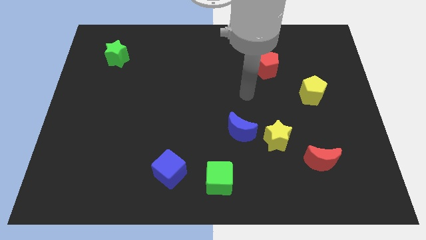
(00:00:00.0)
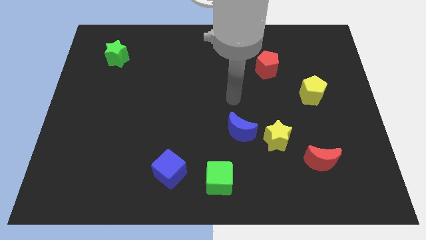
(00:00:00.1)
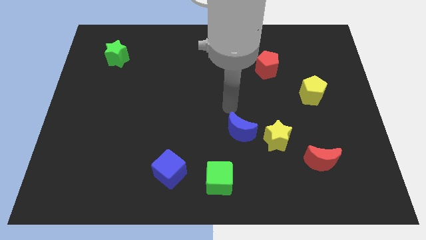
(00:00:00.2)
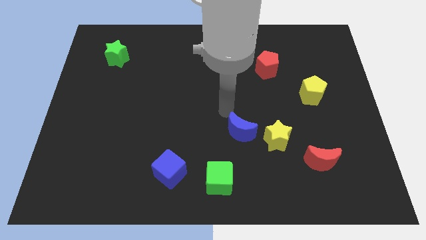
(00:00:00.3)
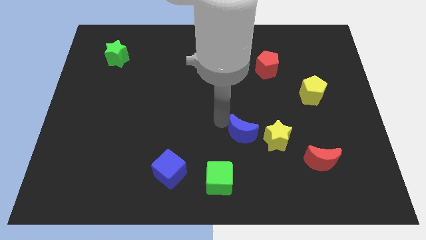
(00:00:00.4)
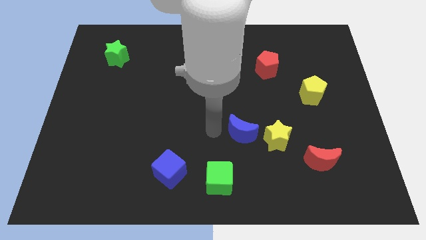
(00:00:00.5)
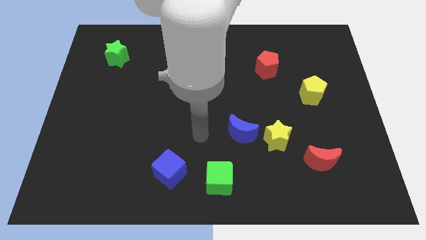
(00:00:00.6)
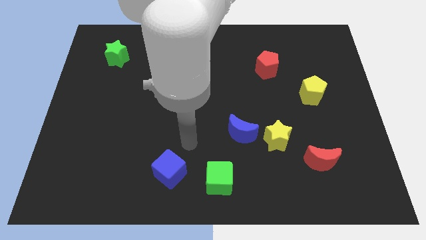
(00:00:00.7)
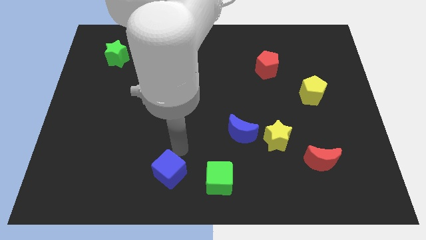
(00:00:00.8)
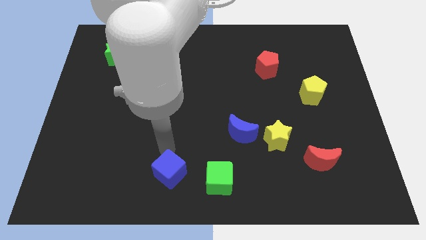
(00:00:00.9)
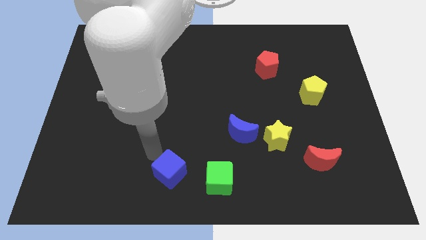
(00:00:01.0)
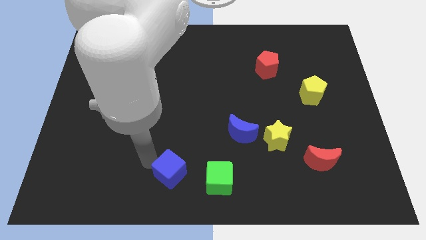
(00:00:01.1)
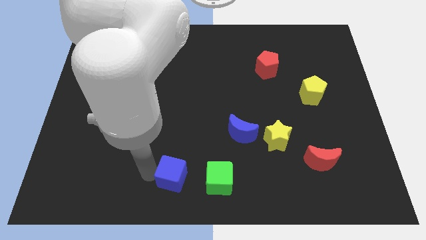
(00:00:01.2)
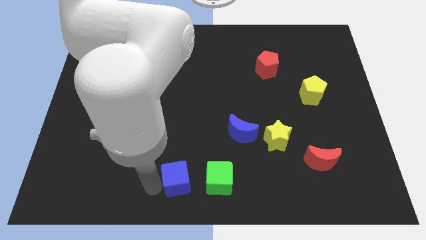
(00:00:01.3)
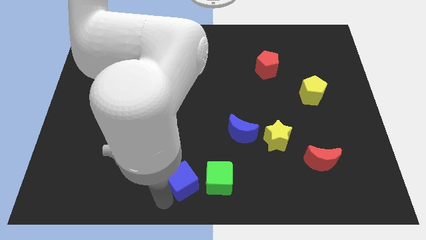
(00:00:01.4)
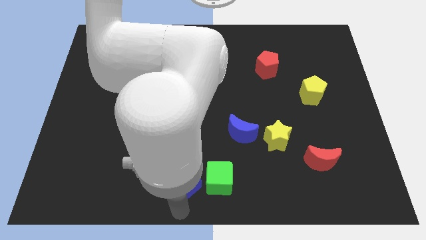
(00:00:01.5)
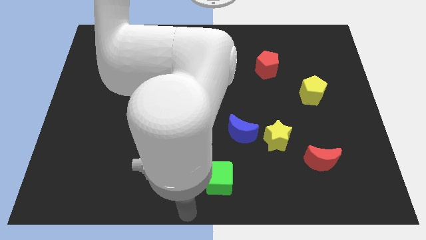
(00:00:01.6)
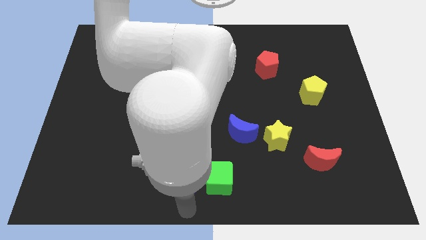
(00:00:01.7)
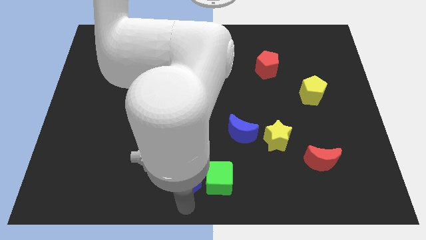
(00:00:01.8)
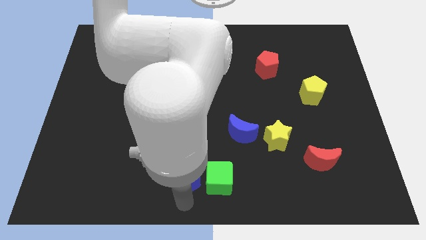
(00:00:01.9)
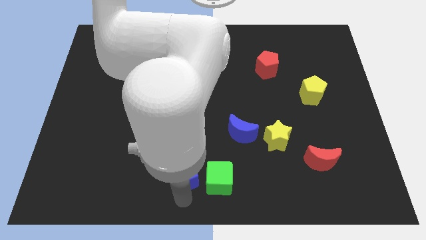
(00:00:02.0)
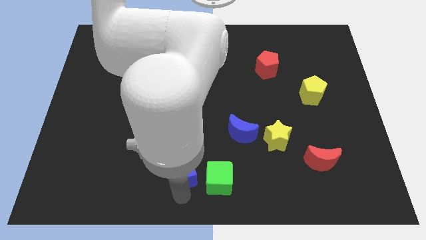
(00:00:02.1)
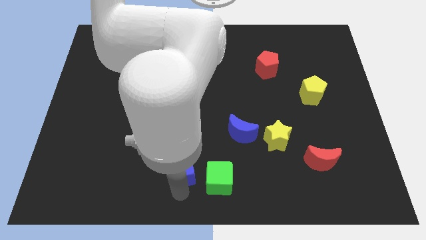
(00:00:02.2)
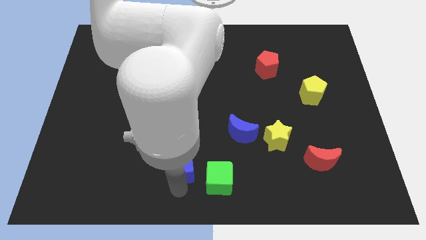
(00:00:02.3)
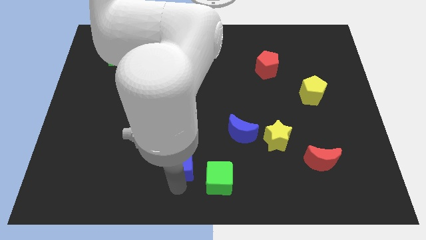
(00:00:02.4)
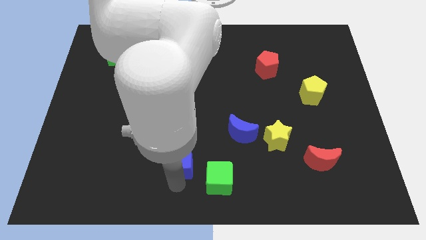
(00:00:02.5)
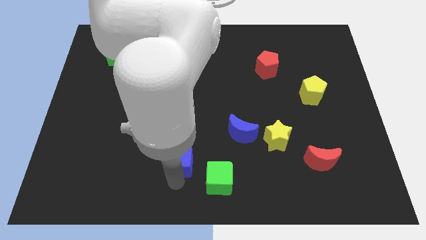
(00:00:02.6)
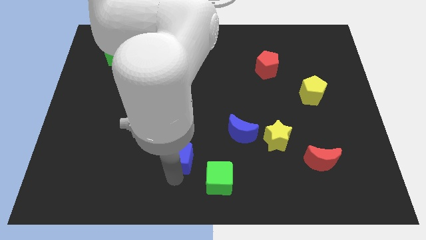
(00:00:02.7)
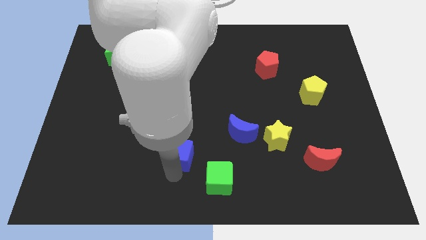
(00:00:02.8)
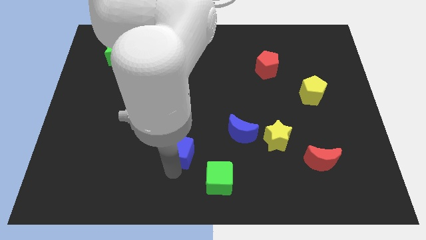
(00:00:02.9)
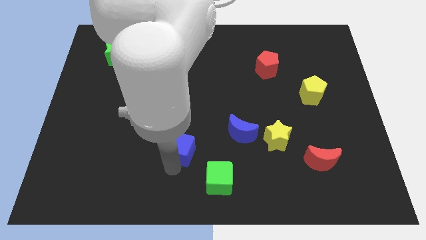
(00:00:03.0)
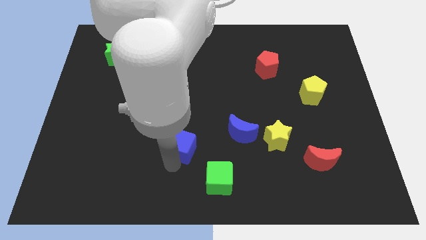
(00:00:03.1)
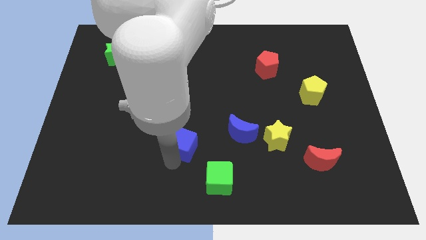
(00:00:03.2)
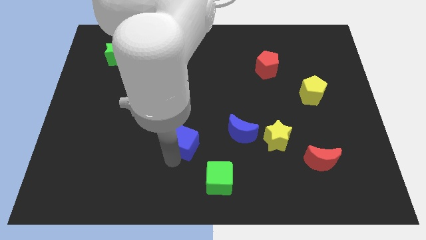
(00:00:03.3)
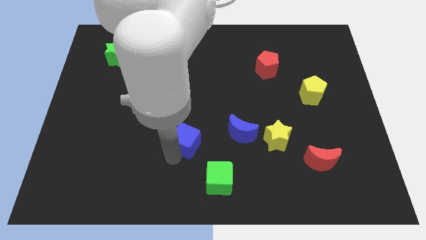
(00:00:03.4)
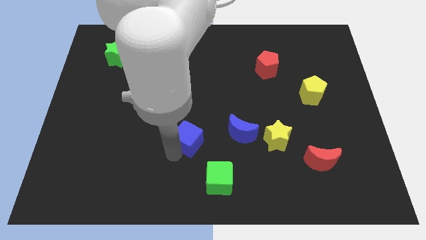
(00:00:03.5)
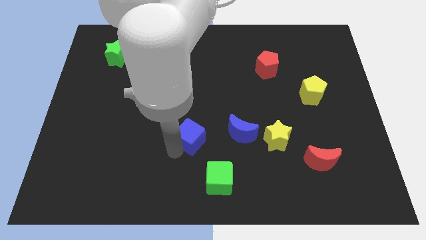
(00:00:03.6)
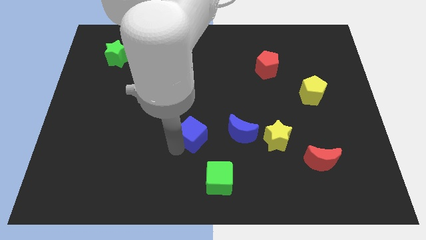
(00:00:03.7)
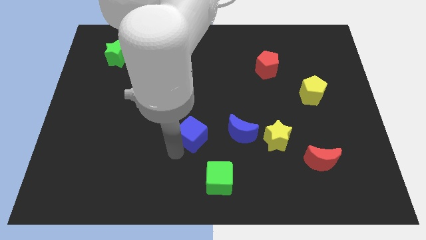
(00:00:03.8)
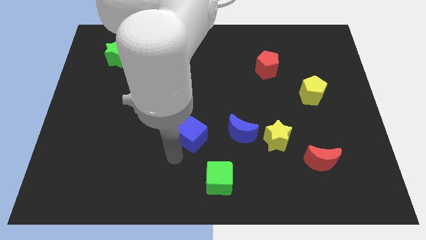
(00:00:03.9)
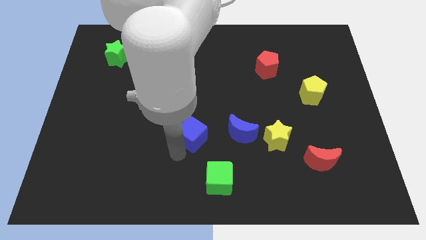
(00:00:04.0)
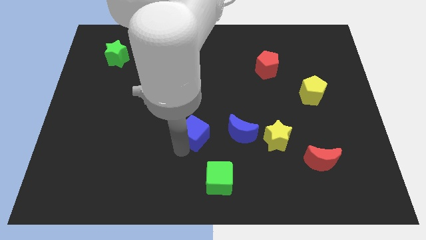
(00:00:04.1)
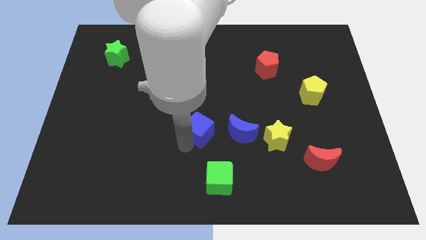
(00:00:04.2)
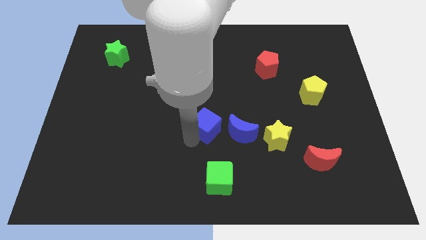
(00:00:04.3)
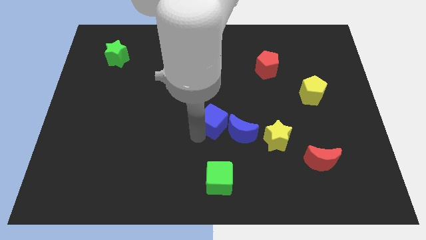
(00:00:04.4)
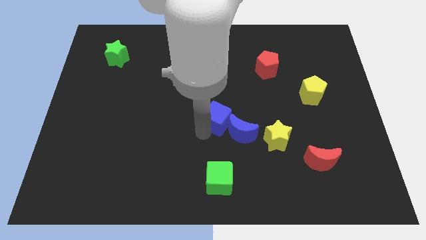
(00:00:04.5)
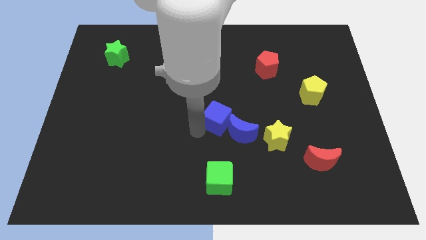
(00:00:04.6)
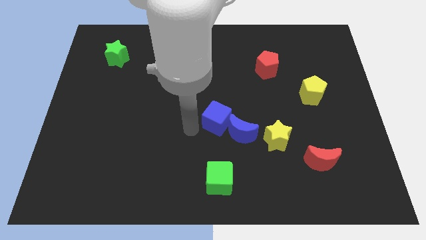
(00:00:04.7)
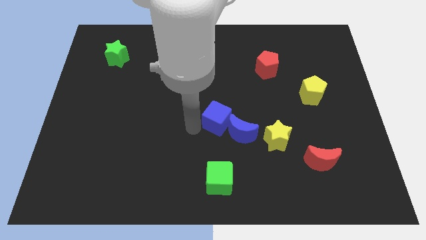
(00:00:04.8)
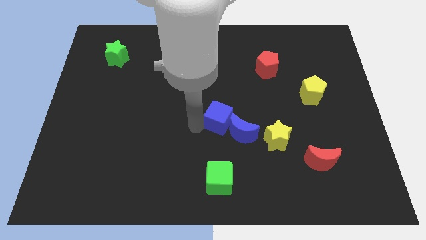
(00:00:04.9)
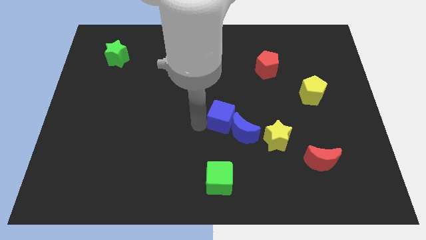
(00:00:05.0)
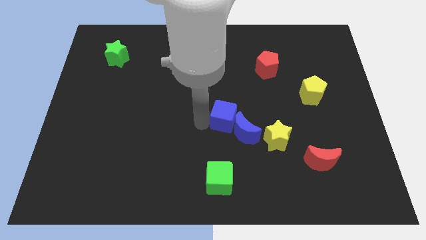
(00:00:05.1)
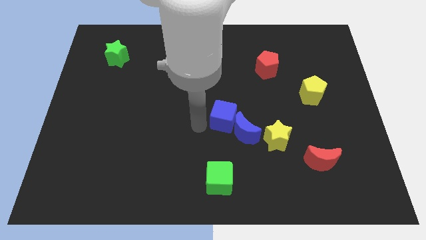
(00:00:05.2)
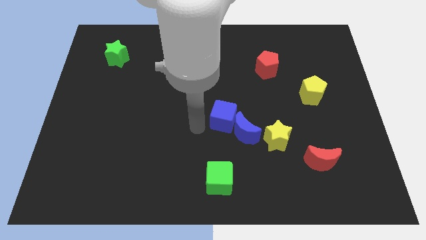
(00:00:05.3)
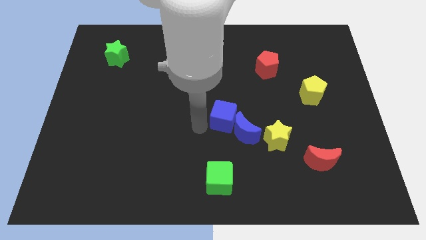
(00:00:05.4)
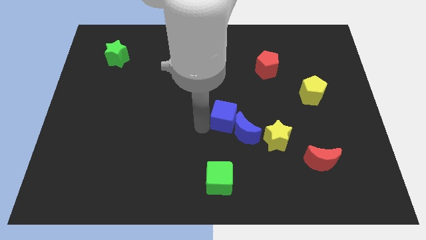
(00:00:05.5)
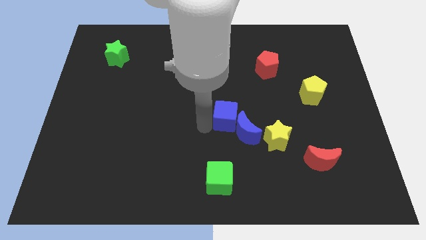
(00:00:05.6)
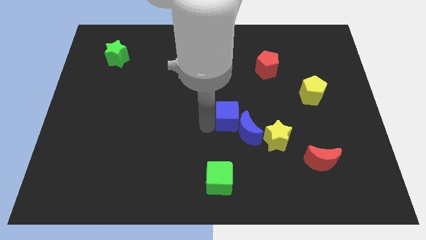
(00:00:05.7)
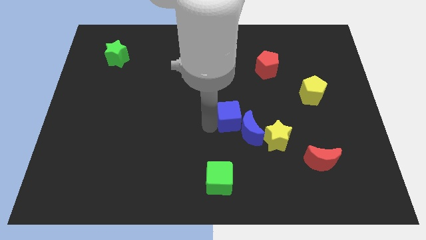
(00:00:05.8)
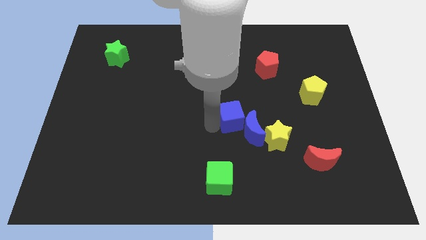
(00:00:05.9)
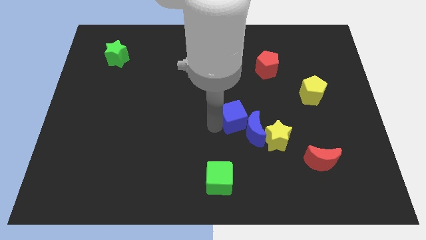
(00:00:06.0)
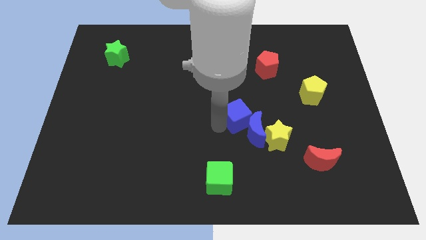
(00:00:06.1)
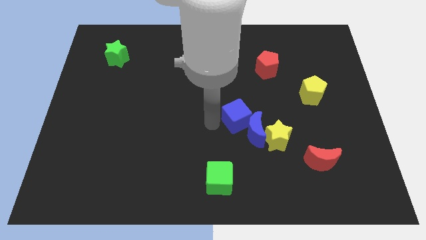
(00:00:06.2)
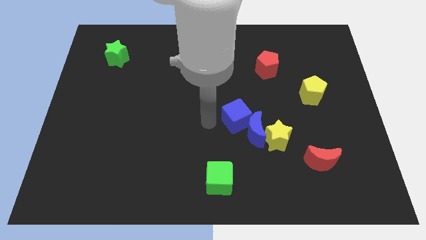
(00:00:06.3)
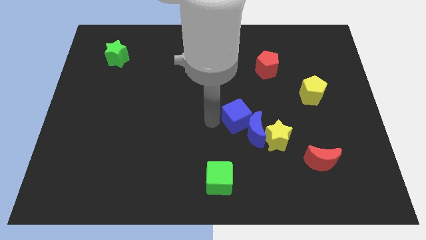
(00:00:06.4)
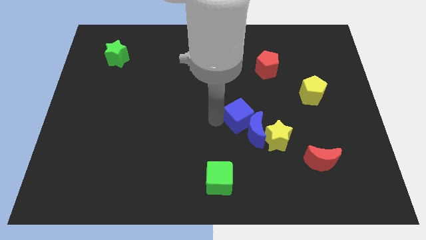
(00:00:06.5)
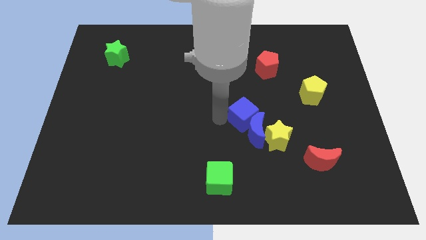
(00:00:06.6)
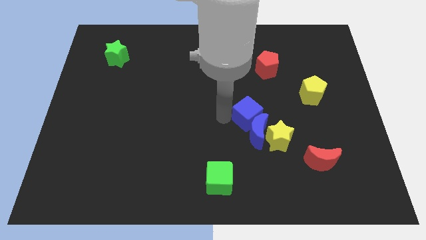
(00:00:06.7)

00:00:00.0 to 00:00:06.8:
put the blue cube diagonally up and to the right of the blue moon
